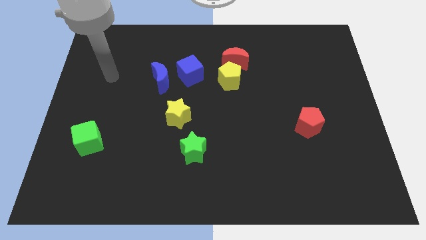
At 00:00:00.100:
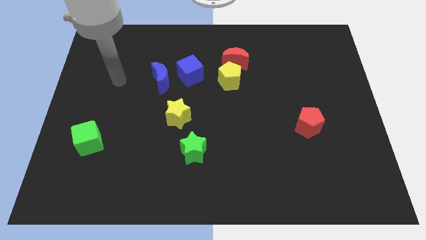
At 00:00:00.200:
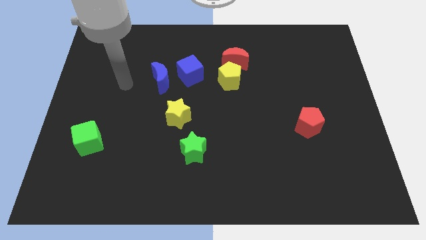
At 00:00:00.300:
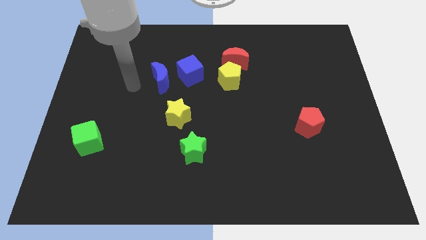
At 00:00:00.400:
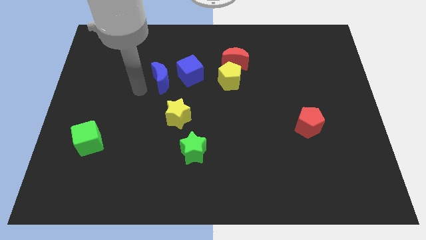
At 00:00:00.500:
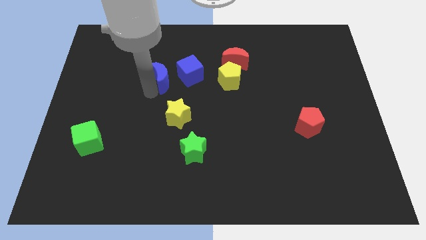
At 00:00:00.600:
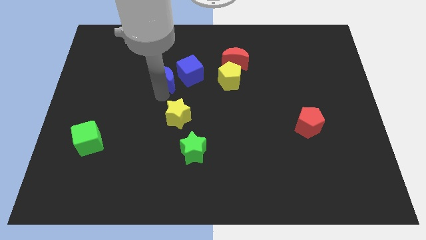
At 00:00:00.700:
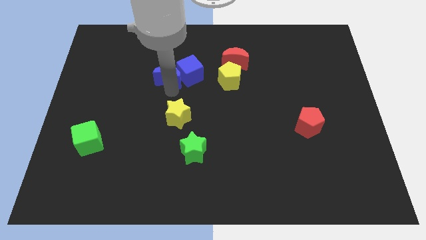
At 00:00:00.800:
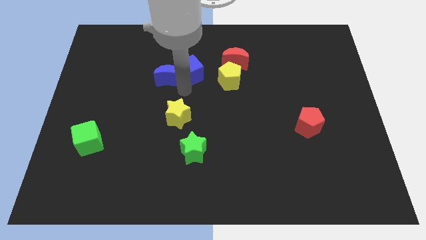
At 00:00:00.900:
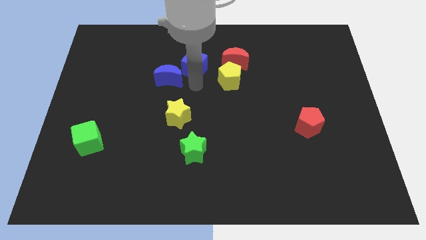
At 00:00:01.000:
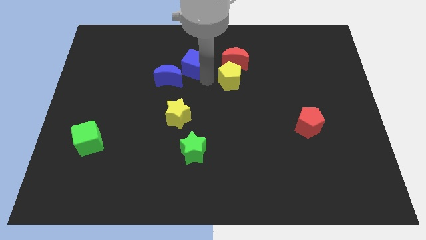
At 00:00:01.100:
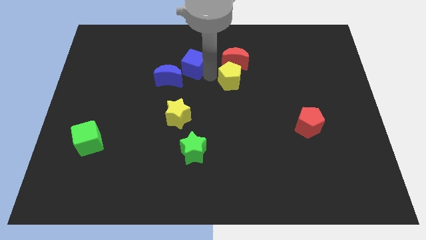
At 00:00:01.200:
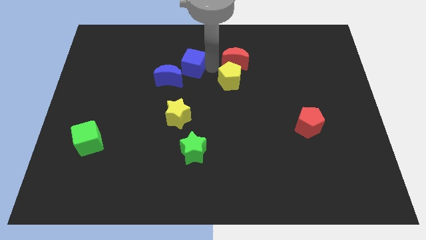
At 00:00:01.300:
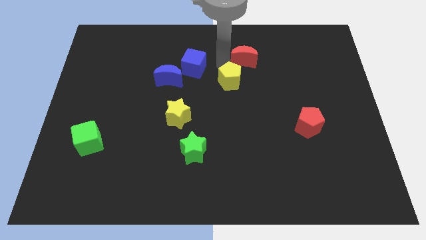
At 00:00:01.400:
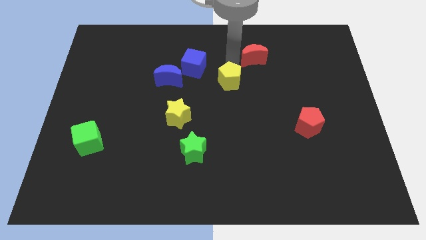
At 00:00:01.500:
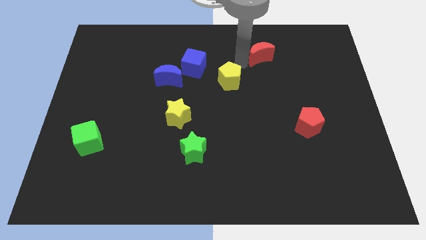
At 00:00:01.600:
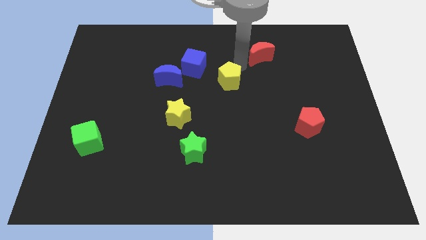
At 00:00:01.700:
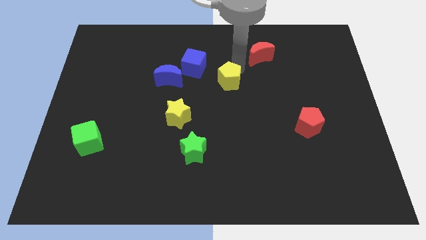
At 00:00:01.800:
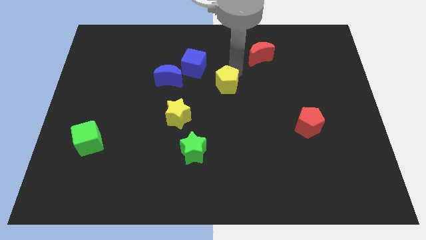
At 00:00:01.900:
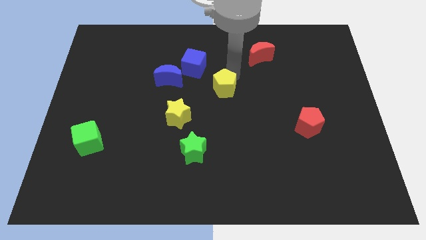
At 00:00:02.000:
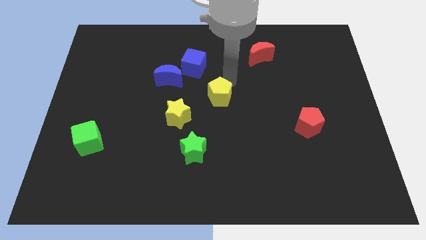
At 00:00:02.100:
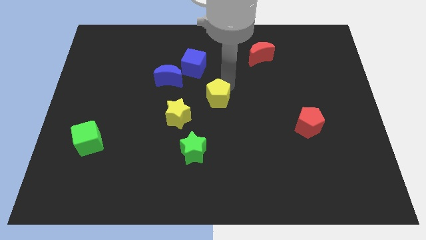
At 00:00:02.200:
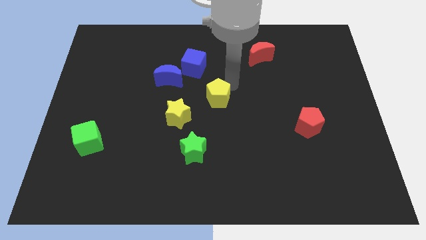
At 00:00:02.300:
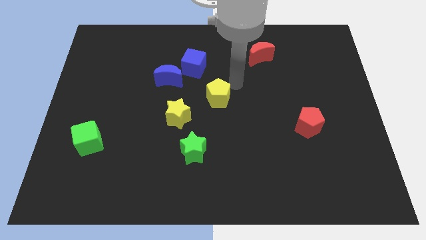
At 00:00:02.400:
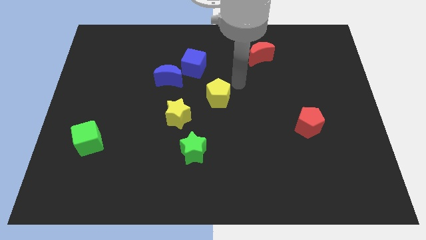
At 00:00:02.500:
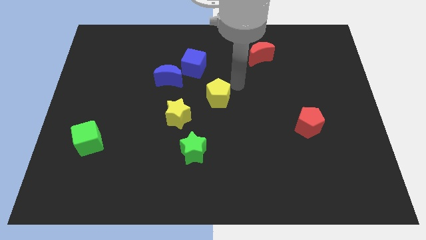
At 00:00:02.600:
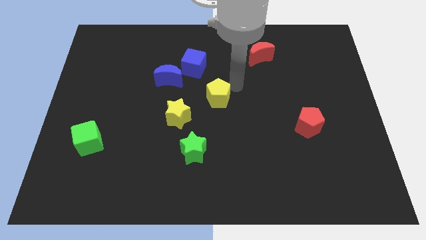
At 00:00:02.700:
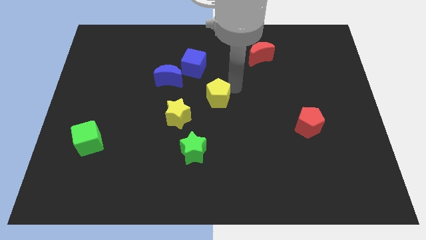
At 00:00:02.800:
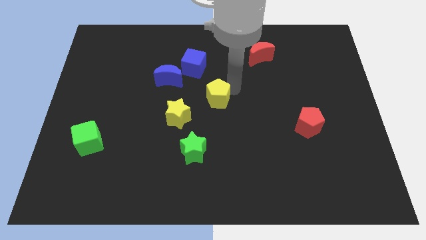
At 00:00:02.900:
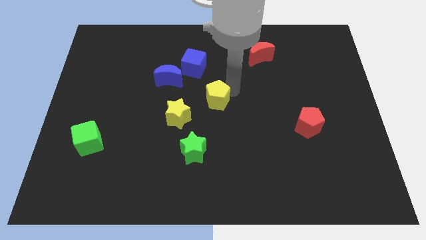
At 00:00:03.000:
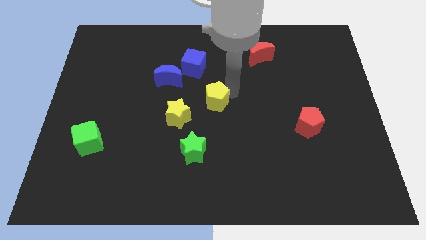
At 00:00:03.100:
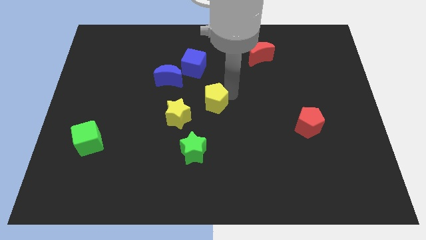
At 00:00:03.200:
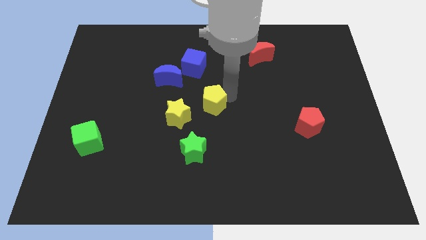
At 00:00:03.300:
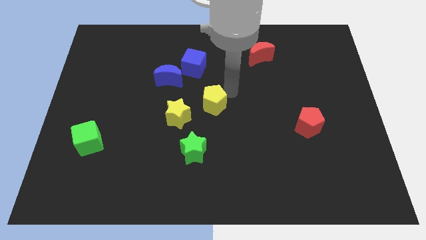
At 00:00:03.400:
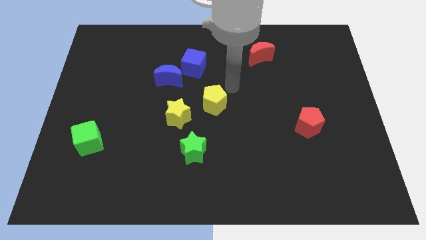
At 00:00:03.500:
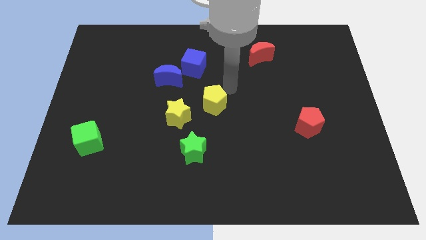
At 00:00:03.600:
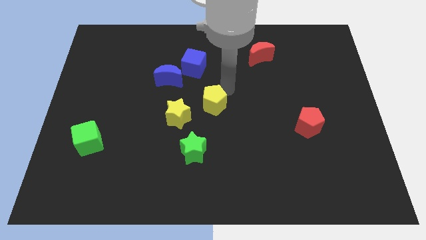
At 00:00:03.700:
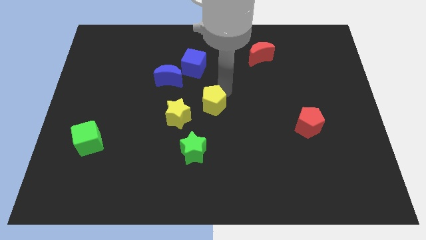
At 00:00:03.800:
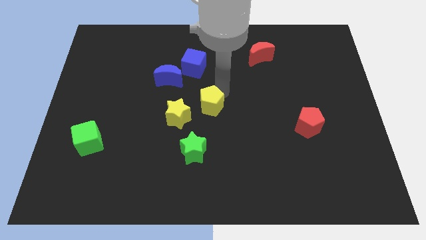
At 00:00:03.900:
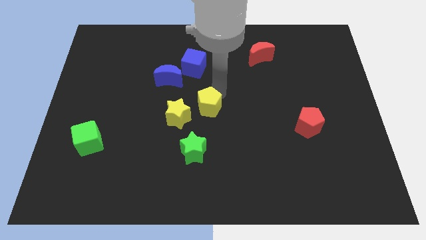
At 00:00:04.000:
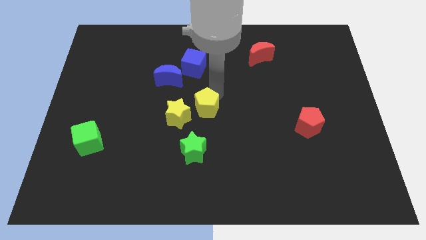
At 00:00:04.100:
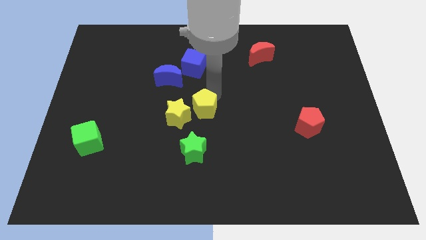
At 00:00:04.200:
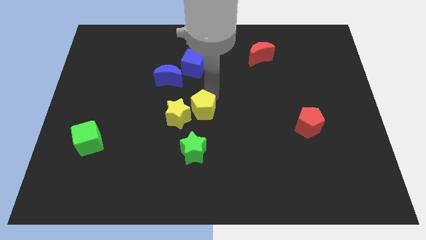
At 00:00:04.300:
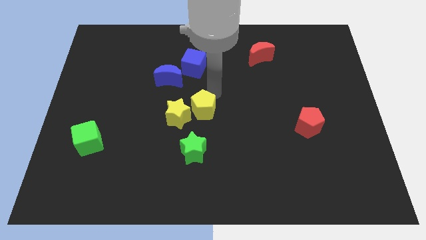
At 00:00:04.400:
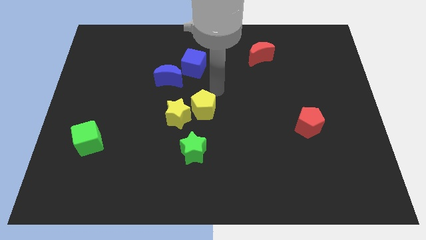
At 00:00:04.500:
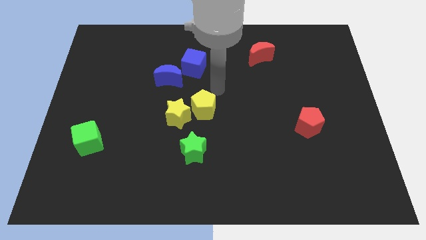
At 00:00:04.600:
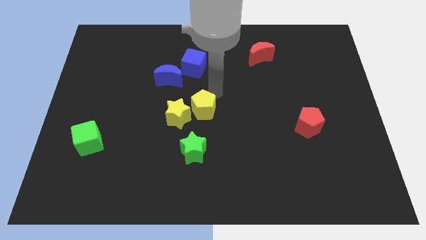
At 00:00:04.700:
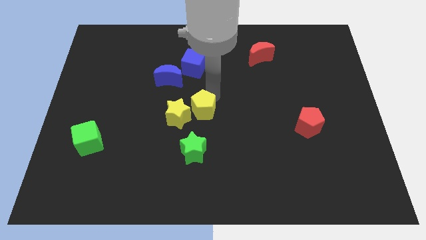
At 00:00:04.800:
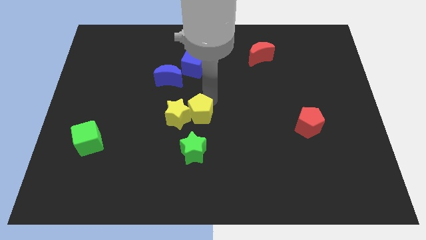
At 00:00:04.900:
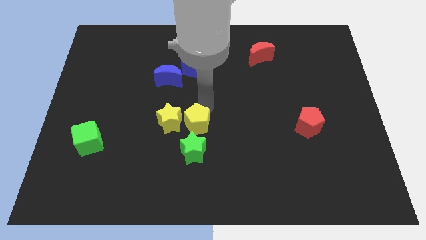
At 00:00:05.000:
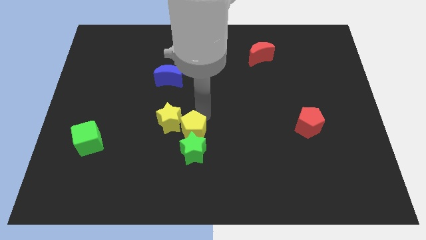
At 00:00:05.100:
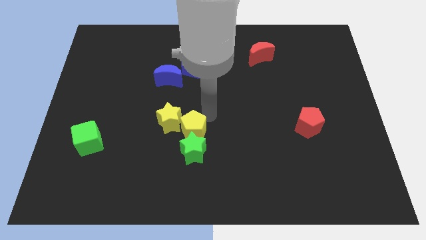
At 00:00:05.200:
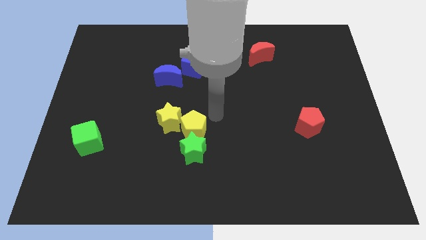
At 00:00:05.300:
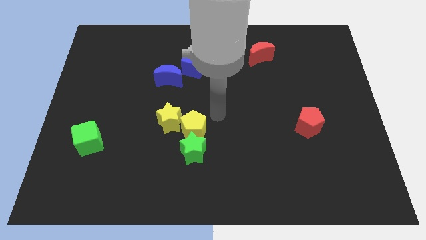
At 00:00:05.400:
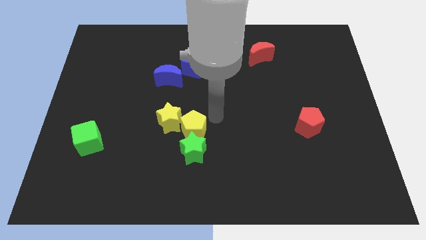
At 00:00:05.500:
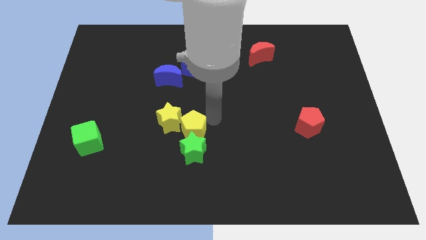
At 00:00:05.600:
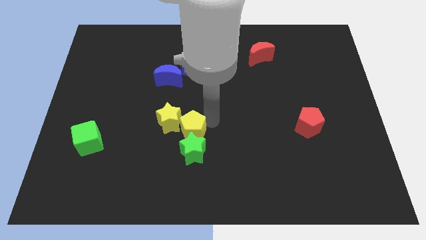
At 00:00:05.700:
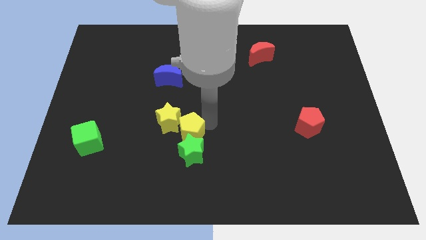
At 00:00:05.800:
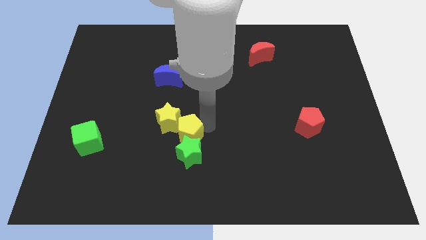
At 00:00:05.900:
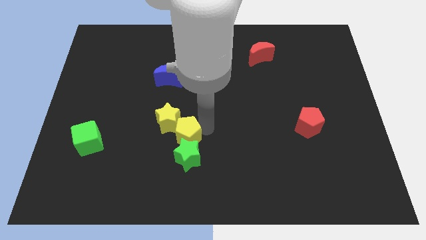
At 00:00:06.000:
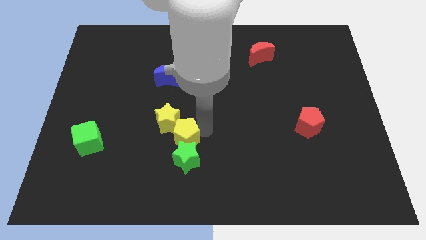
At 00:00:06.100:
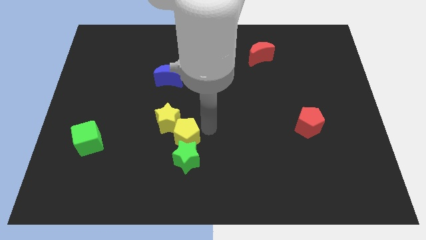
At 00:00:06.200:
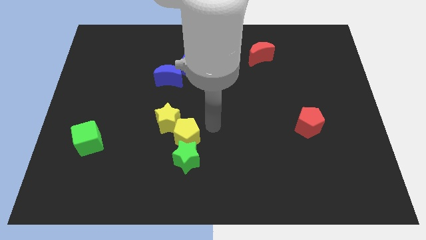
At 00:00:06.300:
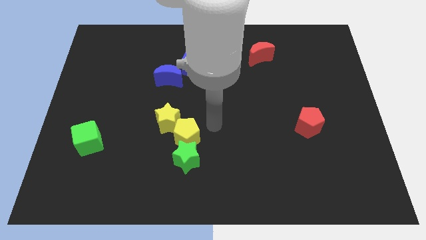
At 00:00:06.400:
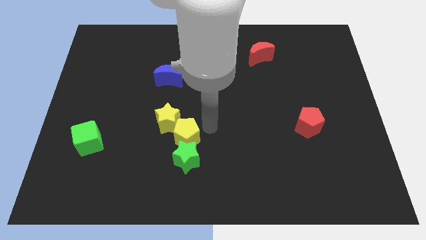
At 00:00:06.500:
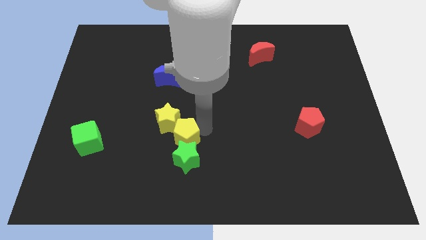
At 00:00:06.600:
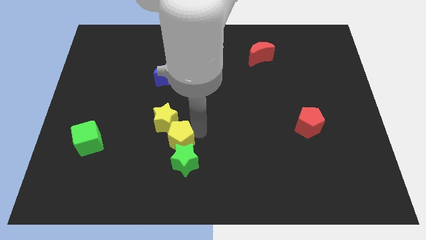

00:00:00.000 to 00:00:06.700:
slide the yellow pentagon diagonally down and left

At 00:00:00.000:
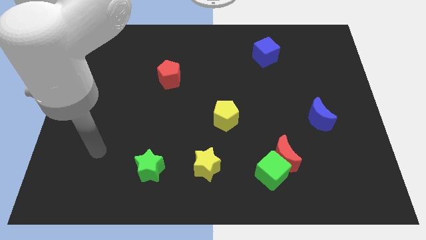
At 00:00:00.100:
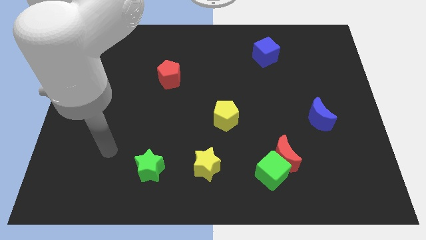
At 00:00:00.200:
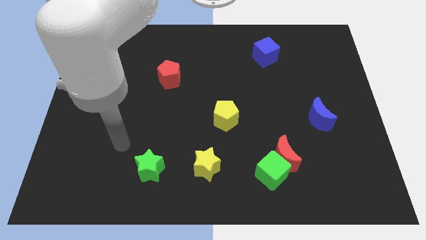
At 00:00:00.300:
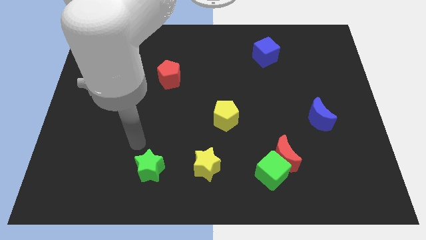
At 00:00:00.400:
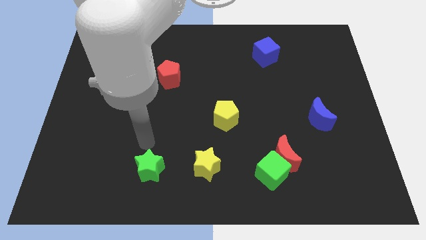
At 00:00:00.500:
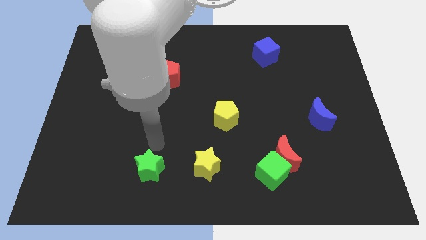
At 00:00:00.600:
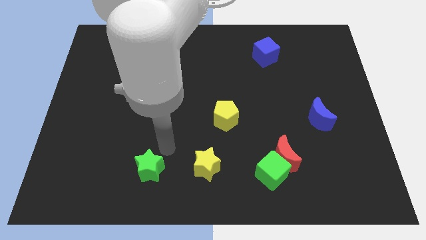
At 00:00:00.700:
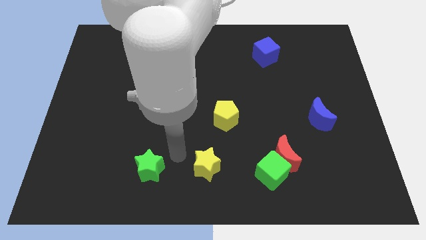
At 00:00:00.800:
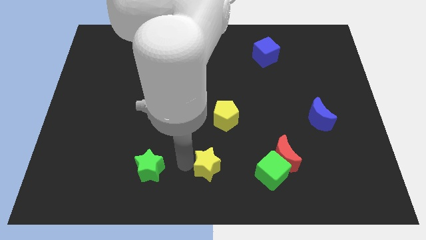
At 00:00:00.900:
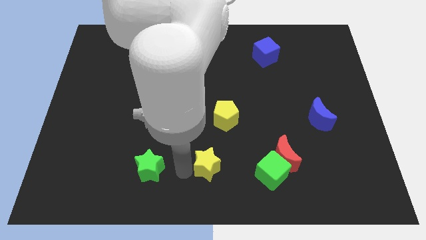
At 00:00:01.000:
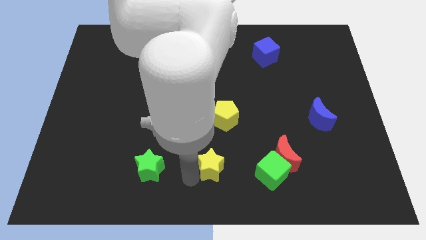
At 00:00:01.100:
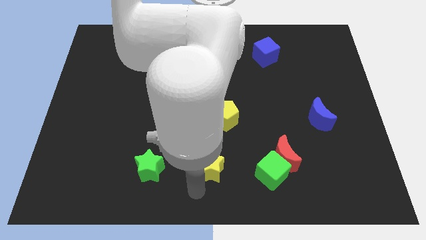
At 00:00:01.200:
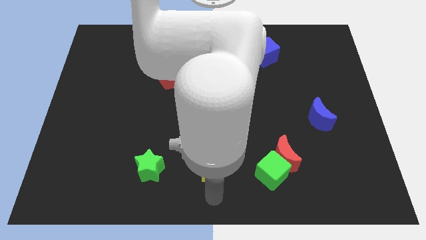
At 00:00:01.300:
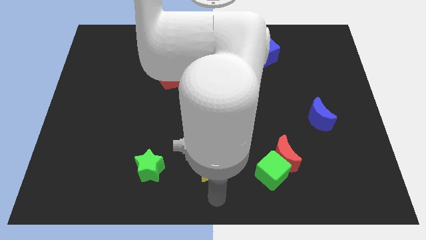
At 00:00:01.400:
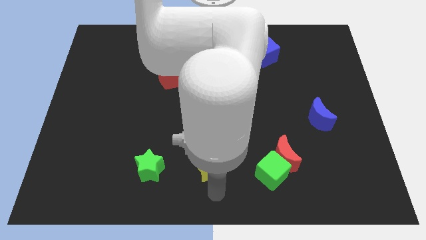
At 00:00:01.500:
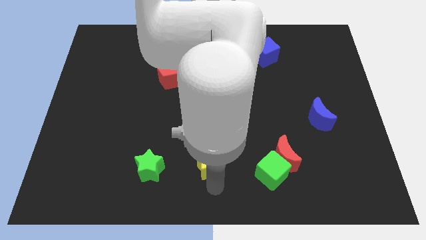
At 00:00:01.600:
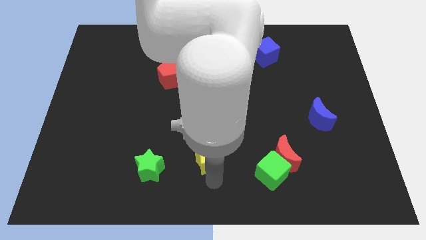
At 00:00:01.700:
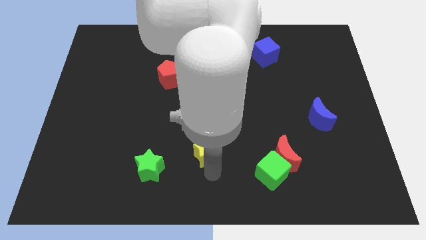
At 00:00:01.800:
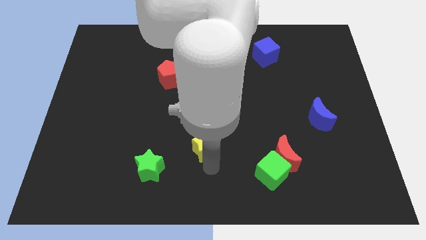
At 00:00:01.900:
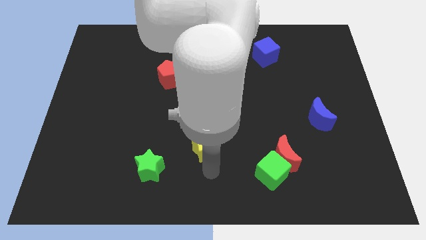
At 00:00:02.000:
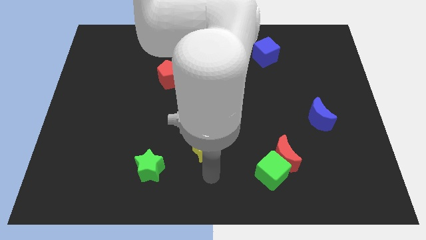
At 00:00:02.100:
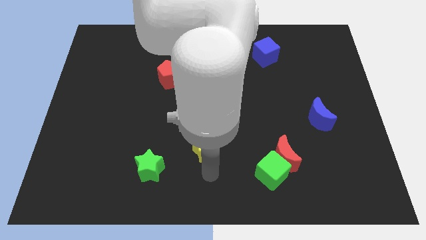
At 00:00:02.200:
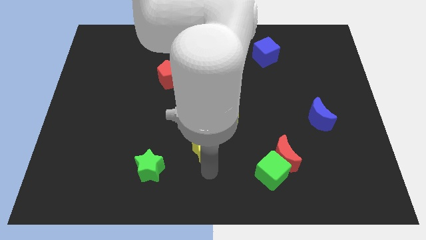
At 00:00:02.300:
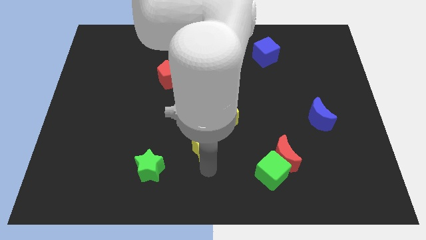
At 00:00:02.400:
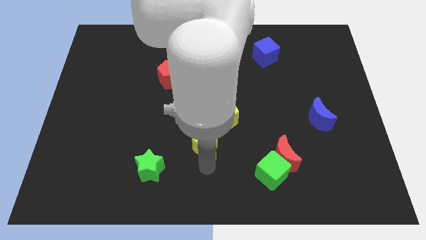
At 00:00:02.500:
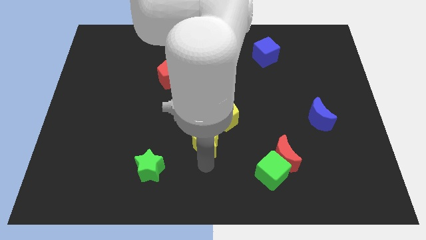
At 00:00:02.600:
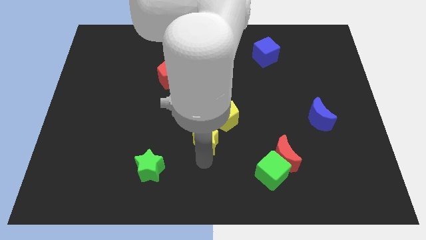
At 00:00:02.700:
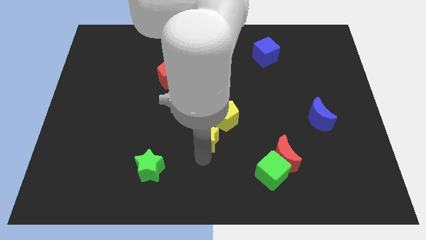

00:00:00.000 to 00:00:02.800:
push the yellow star up a little
